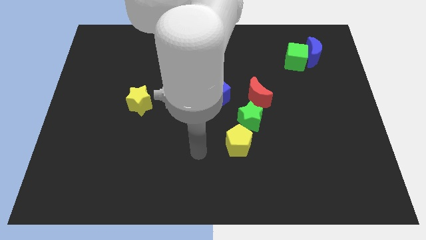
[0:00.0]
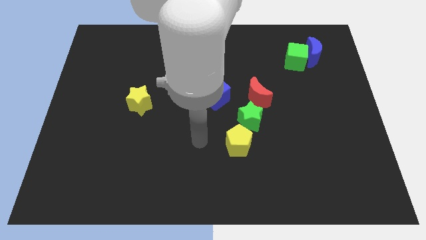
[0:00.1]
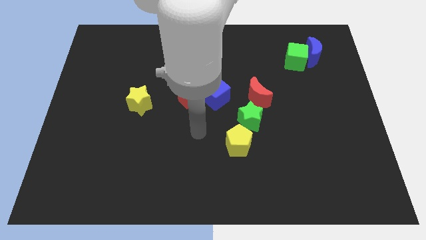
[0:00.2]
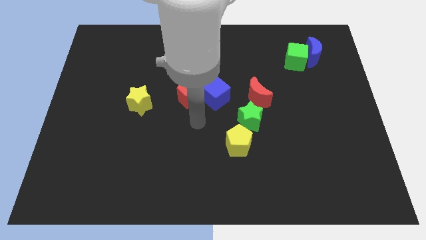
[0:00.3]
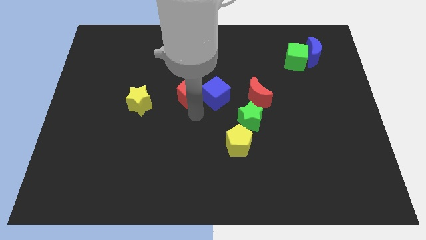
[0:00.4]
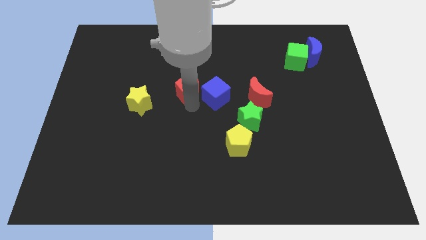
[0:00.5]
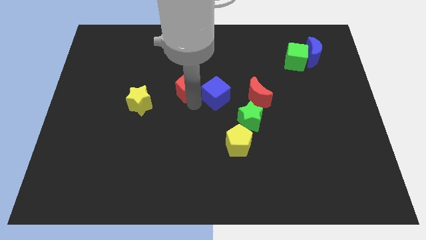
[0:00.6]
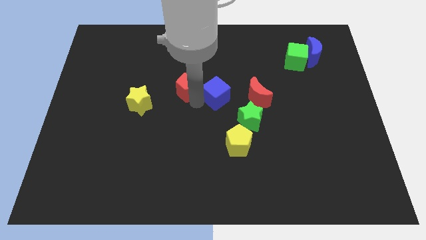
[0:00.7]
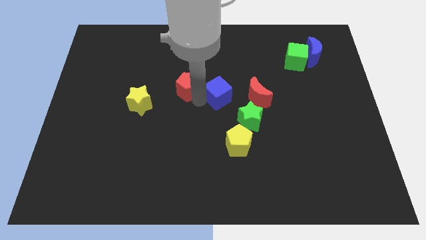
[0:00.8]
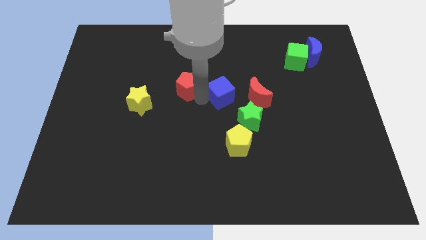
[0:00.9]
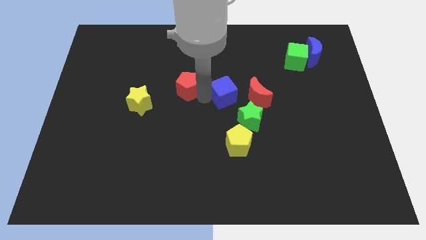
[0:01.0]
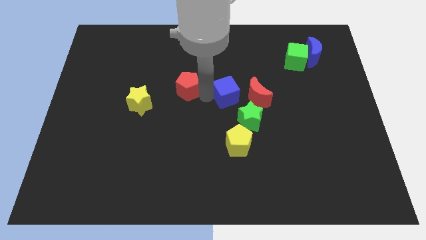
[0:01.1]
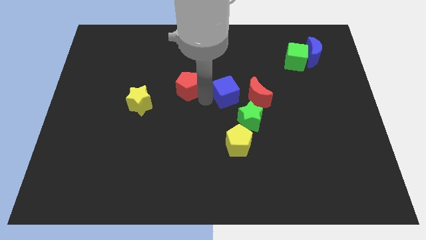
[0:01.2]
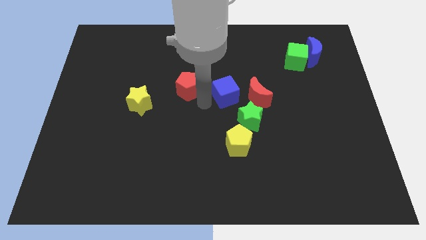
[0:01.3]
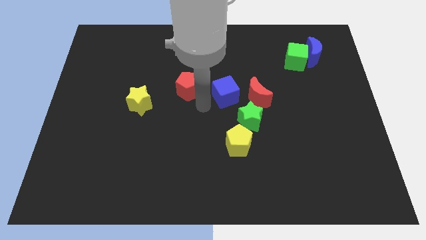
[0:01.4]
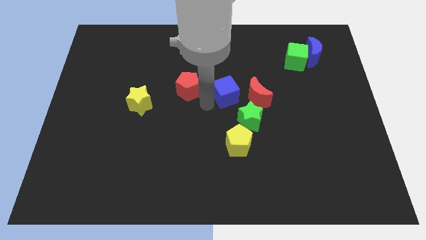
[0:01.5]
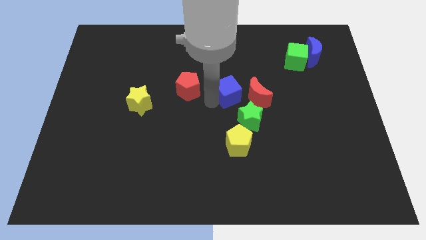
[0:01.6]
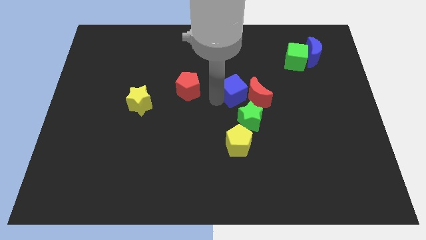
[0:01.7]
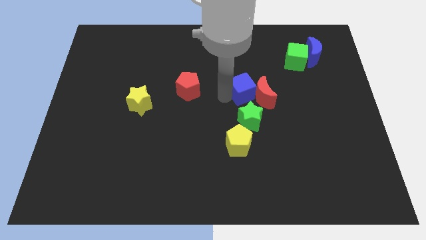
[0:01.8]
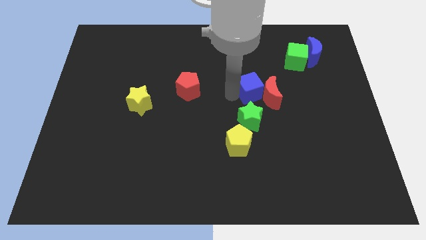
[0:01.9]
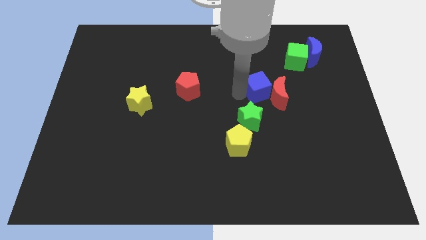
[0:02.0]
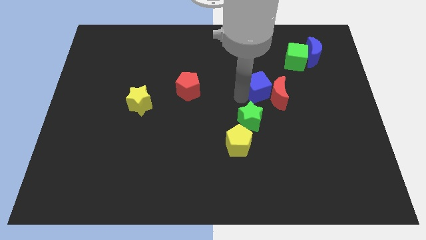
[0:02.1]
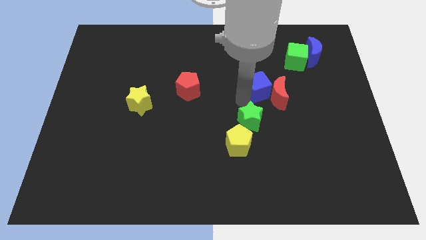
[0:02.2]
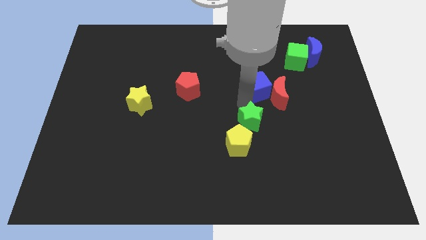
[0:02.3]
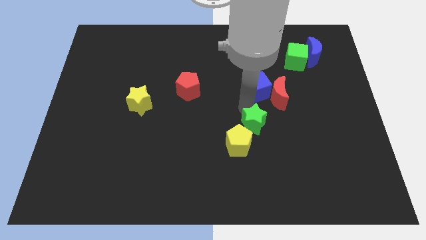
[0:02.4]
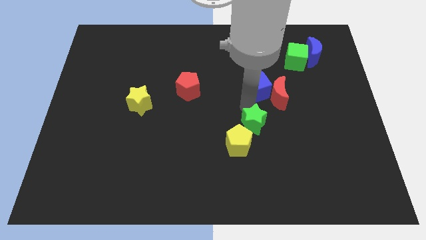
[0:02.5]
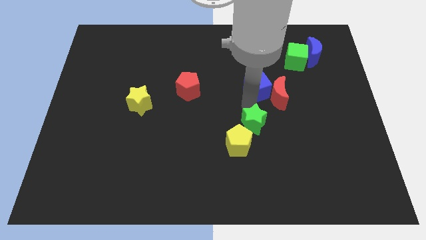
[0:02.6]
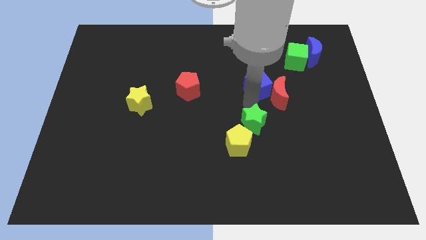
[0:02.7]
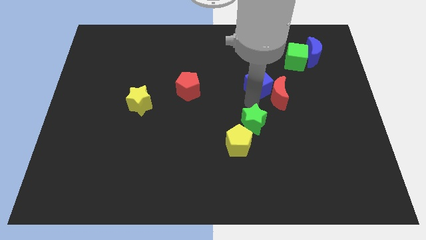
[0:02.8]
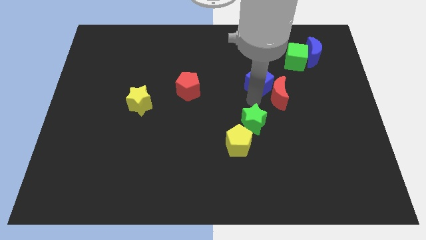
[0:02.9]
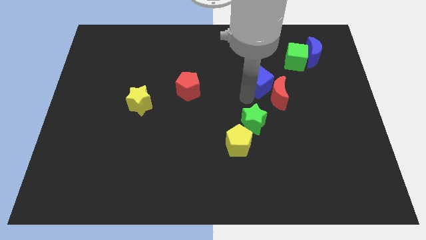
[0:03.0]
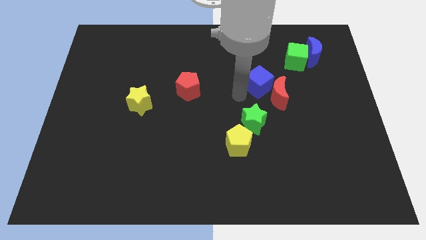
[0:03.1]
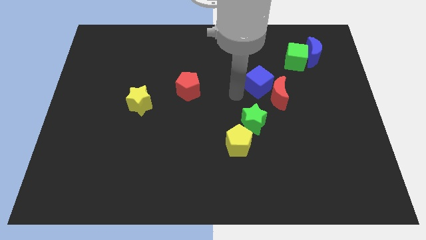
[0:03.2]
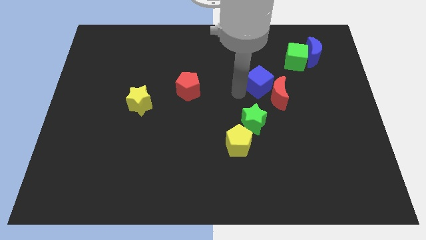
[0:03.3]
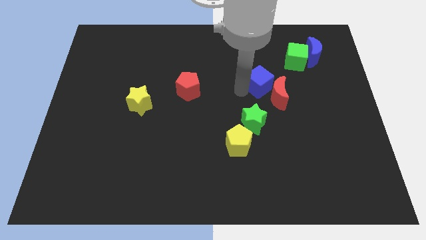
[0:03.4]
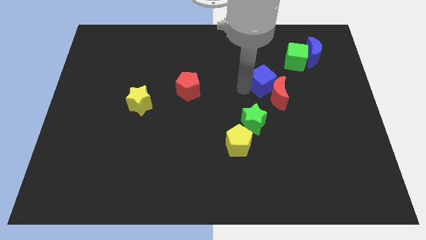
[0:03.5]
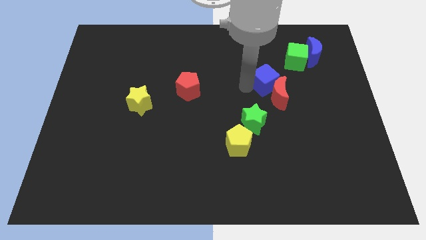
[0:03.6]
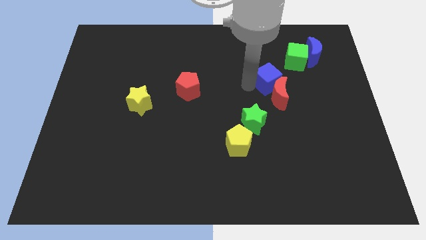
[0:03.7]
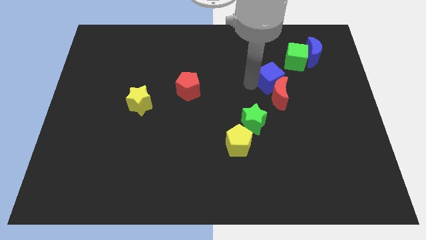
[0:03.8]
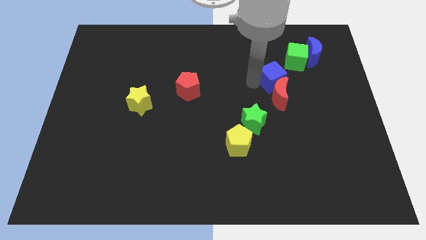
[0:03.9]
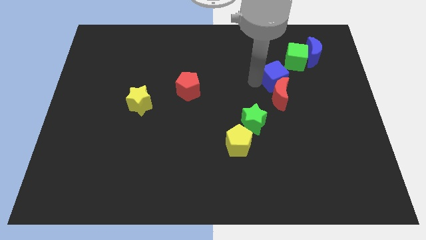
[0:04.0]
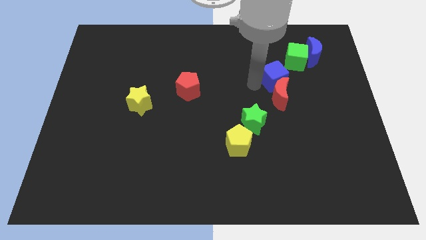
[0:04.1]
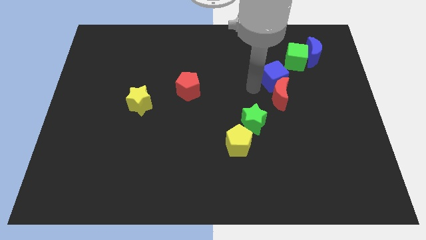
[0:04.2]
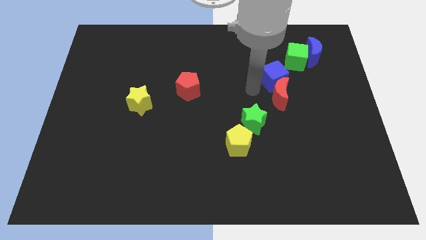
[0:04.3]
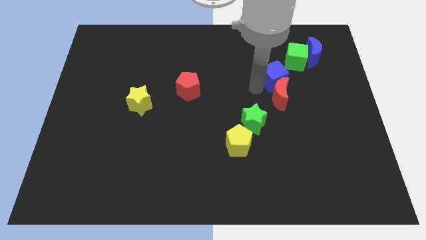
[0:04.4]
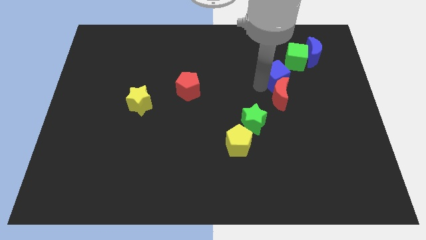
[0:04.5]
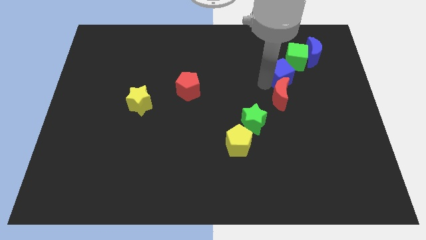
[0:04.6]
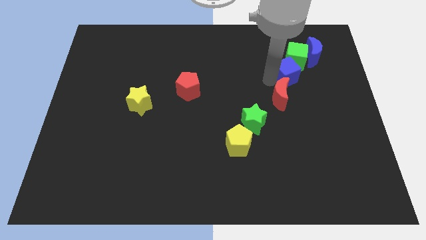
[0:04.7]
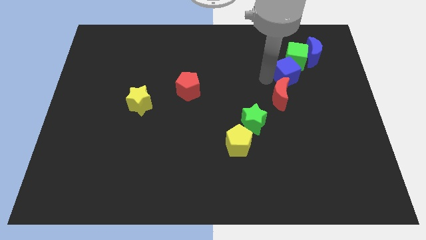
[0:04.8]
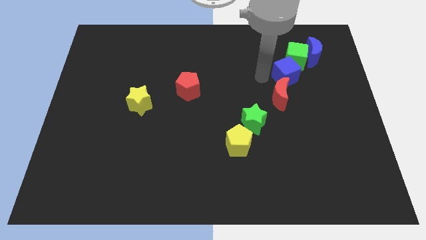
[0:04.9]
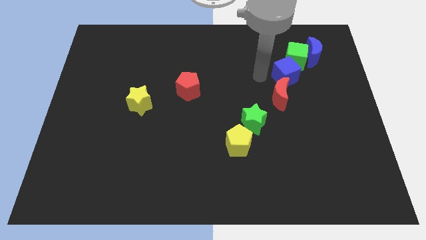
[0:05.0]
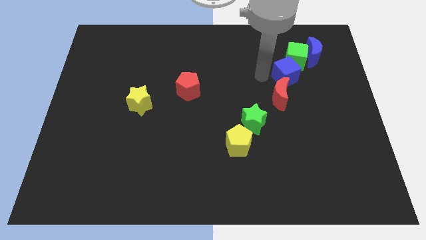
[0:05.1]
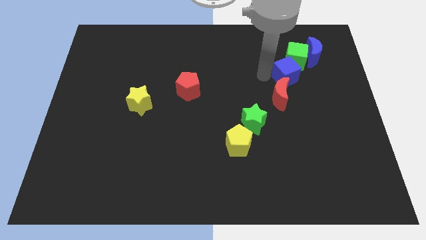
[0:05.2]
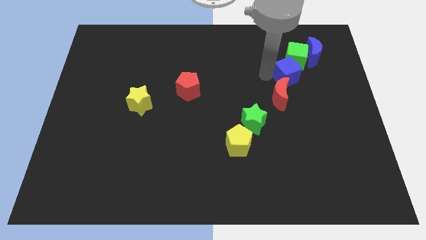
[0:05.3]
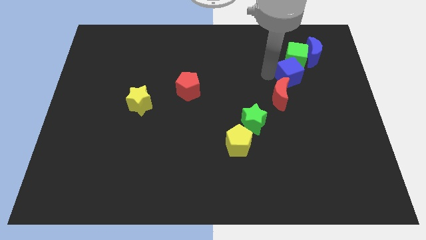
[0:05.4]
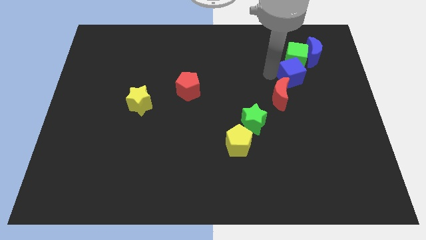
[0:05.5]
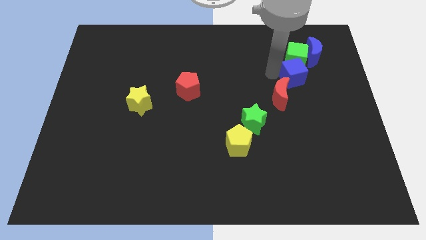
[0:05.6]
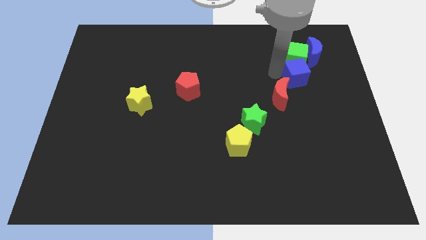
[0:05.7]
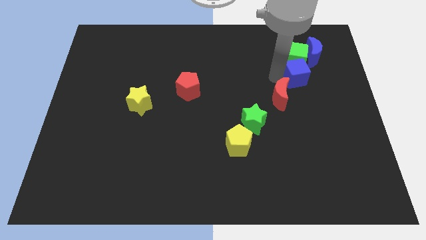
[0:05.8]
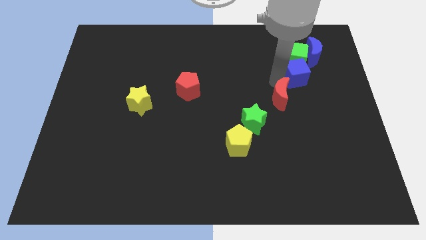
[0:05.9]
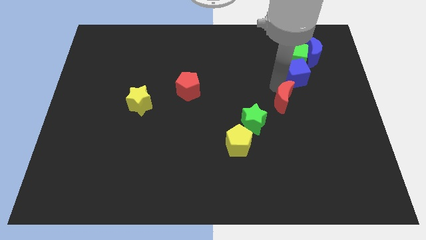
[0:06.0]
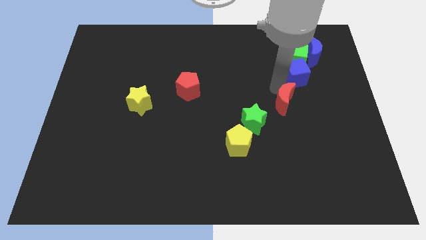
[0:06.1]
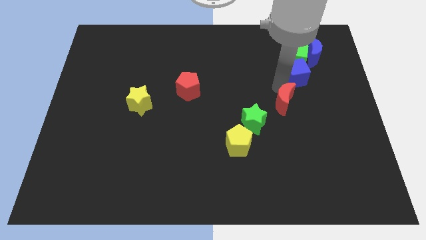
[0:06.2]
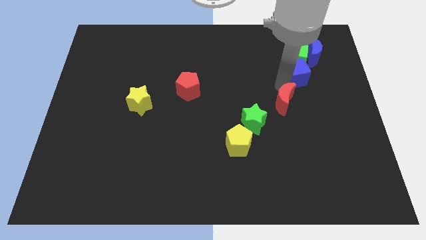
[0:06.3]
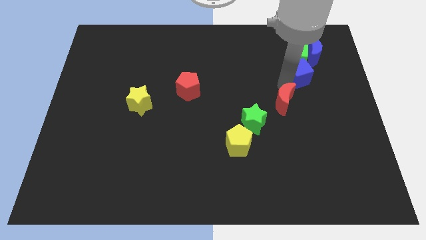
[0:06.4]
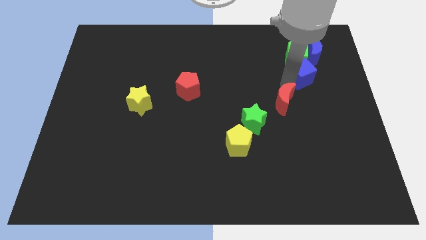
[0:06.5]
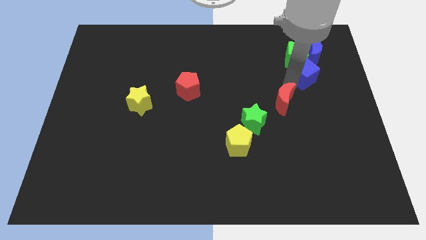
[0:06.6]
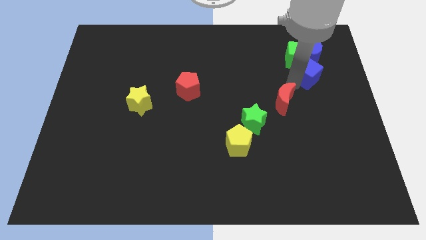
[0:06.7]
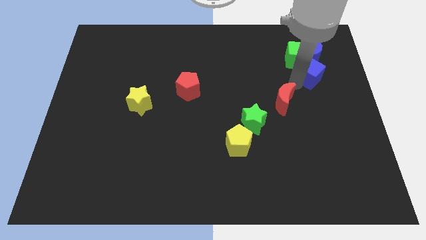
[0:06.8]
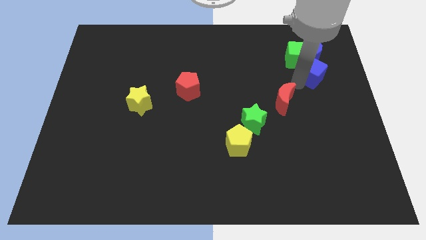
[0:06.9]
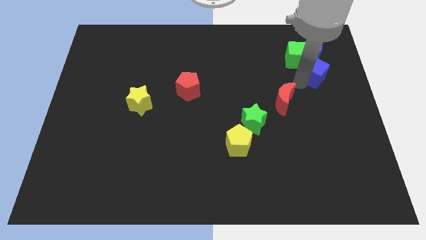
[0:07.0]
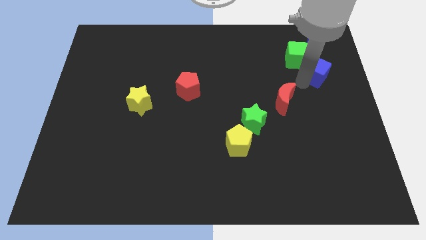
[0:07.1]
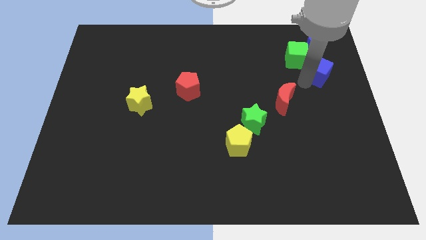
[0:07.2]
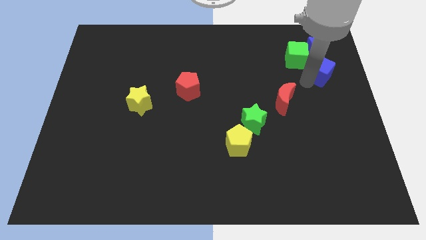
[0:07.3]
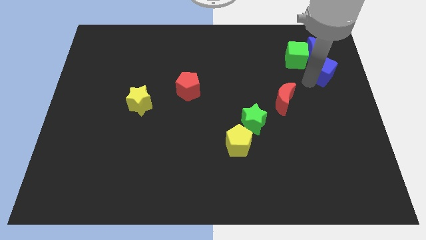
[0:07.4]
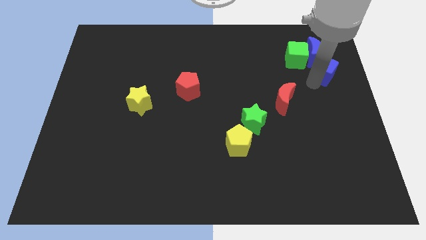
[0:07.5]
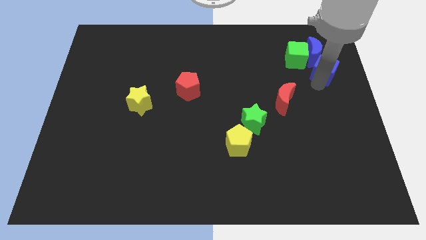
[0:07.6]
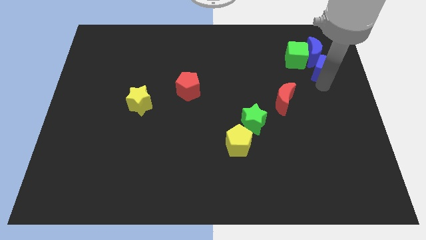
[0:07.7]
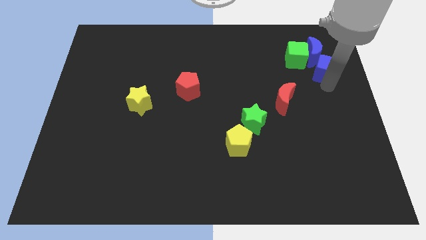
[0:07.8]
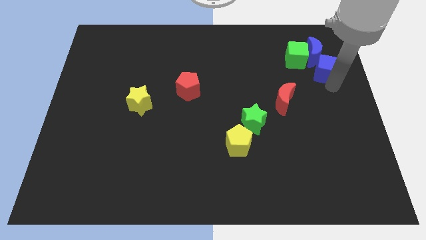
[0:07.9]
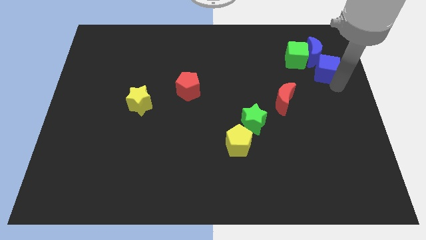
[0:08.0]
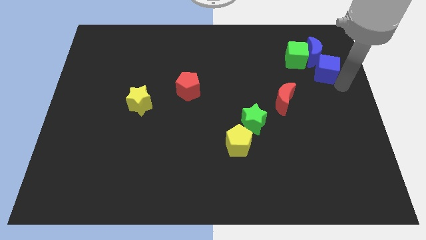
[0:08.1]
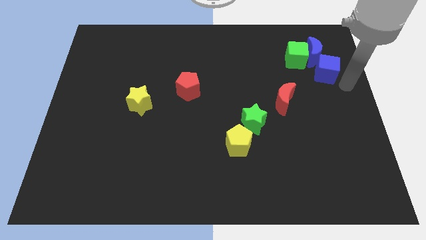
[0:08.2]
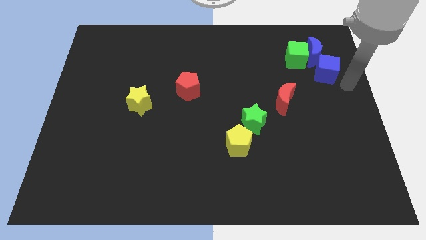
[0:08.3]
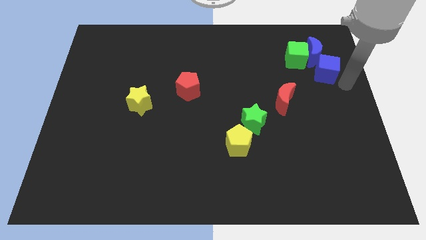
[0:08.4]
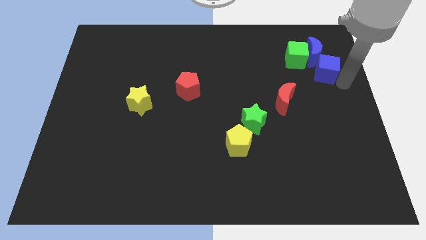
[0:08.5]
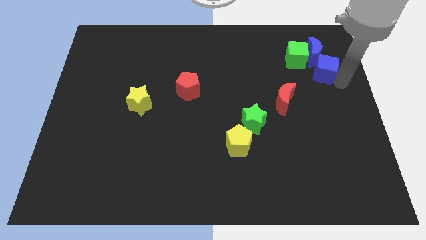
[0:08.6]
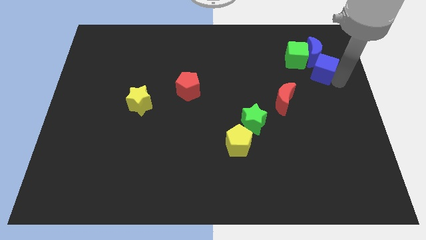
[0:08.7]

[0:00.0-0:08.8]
move the blue cube next to the blue moon
